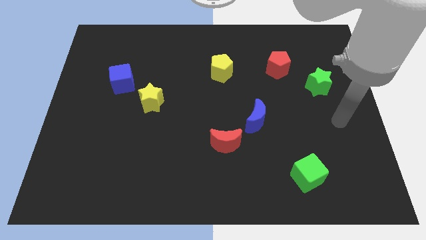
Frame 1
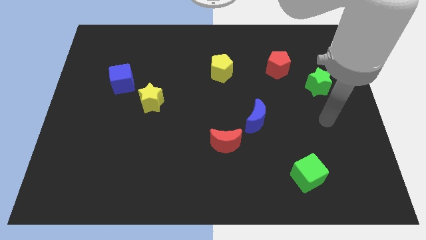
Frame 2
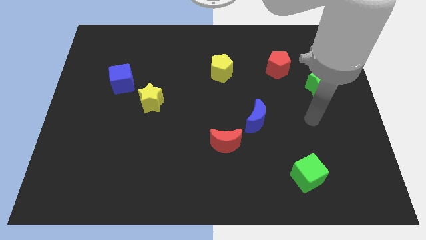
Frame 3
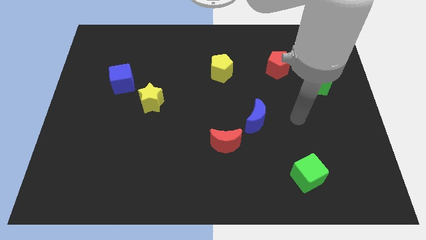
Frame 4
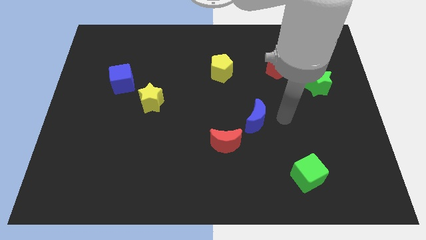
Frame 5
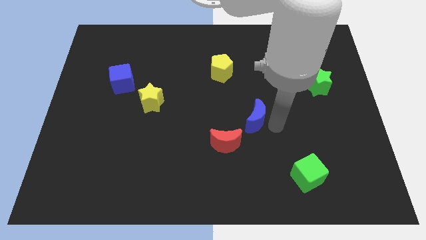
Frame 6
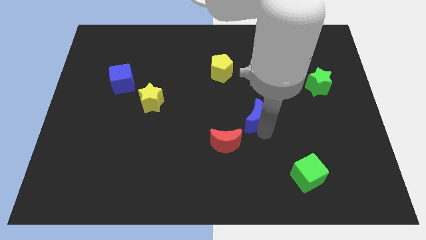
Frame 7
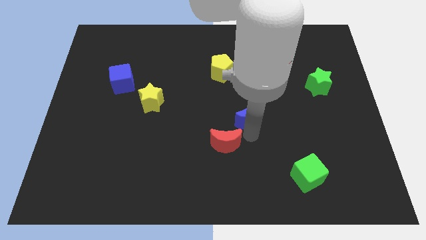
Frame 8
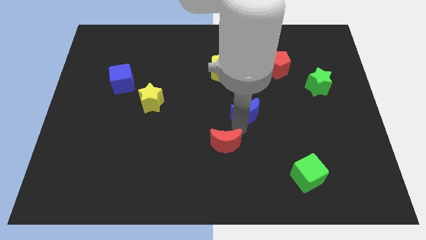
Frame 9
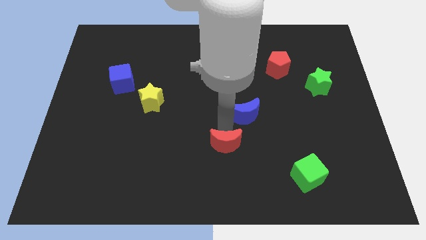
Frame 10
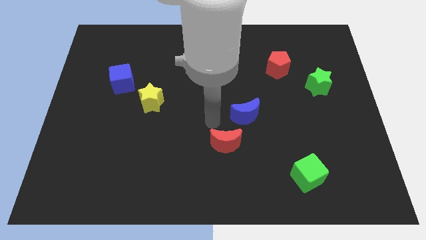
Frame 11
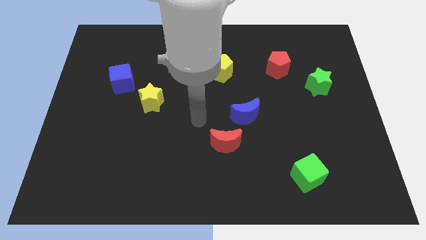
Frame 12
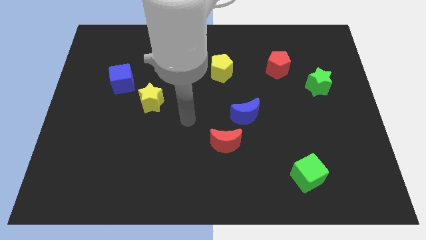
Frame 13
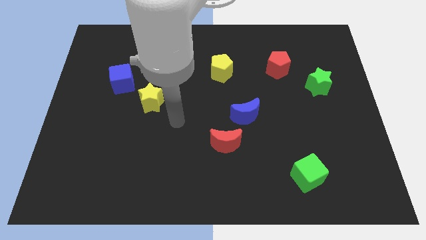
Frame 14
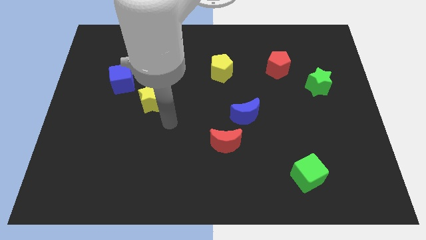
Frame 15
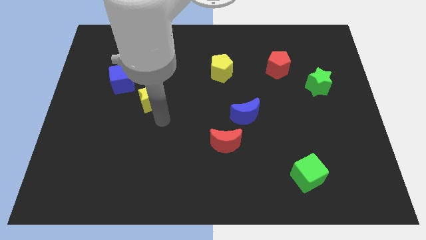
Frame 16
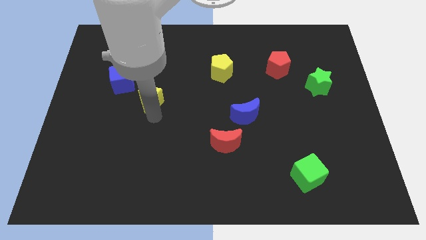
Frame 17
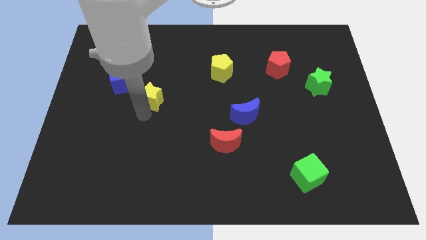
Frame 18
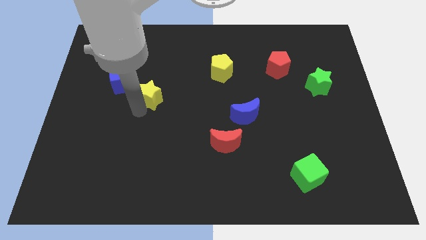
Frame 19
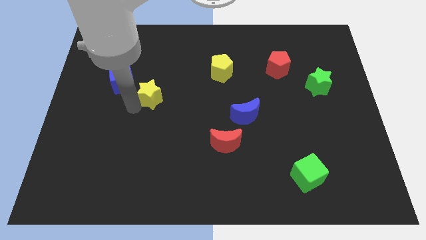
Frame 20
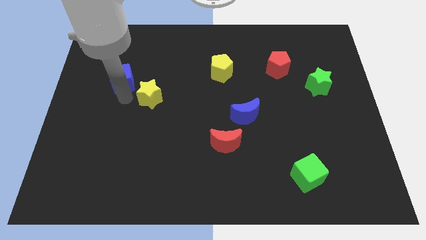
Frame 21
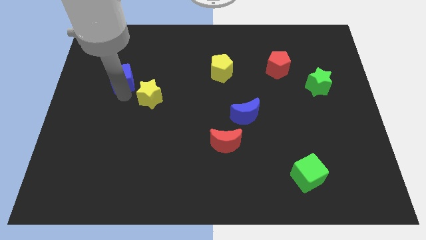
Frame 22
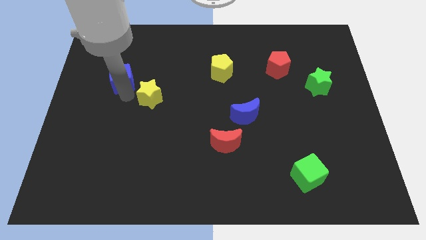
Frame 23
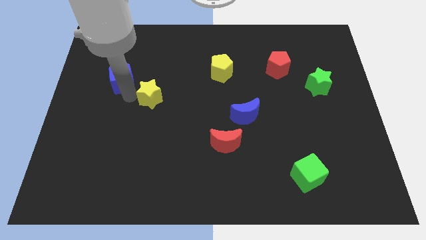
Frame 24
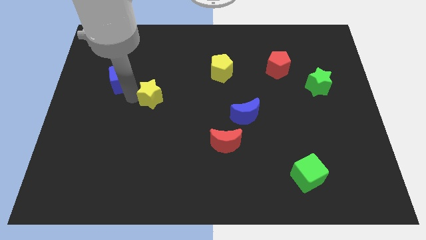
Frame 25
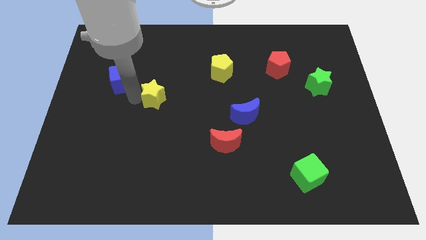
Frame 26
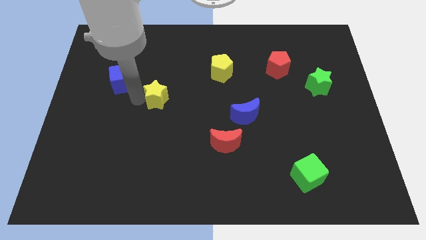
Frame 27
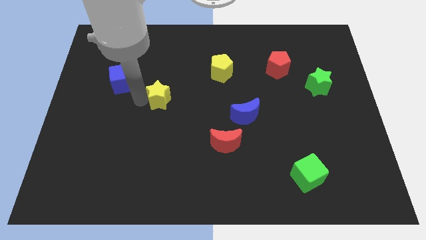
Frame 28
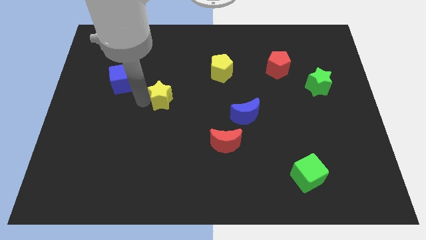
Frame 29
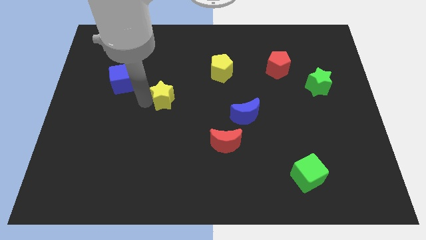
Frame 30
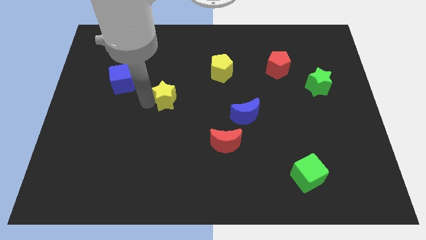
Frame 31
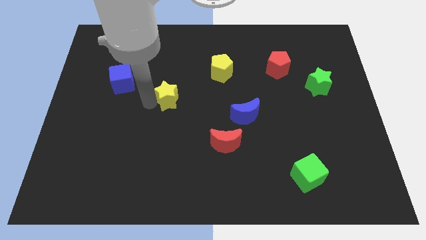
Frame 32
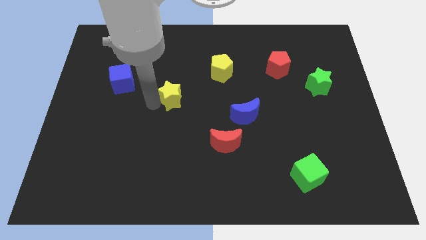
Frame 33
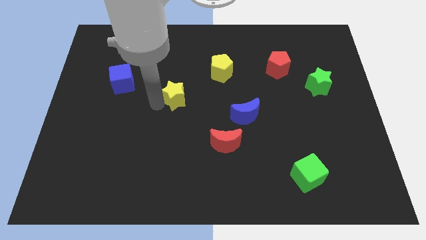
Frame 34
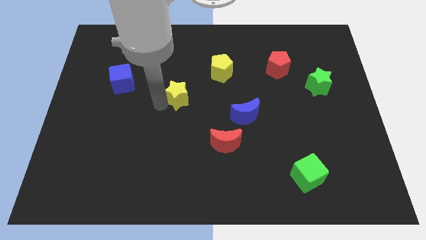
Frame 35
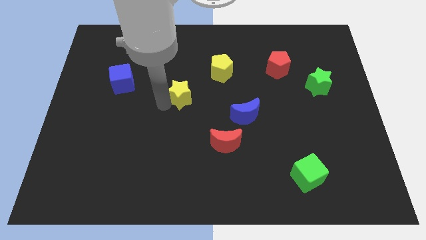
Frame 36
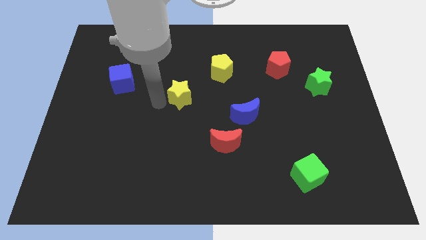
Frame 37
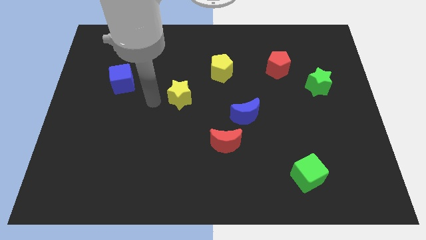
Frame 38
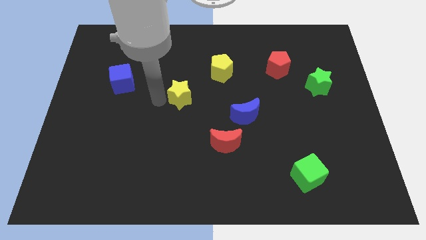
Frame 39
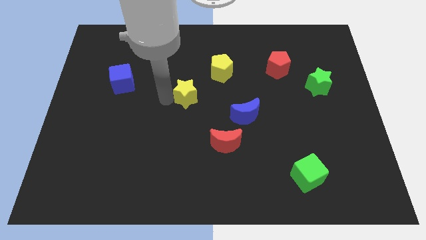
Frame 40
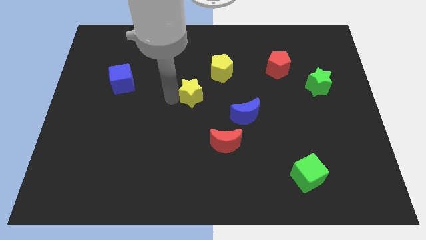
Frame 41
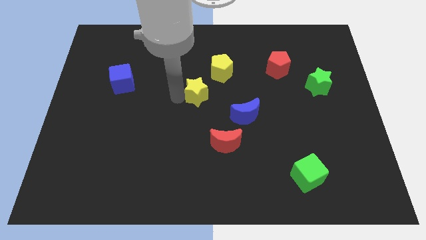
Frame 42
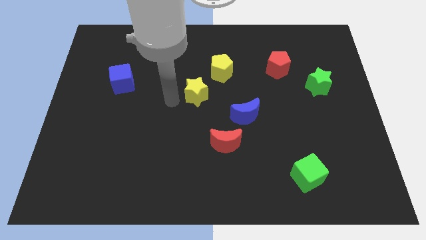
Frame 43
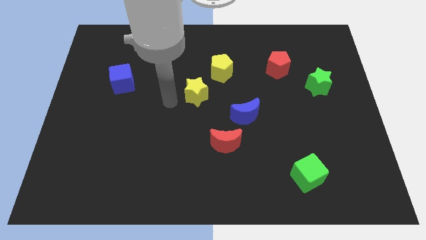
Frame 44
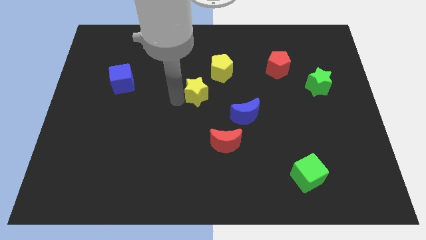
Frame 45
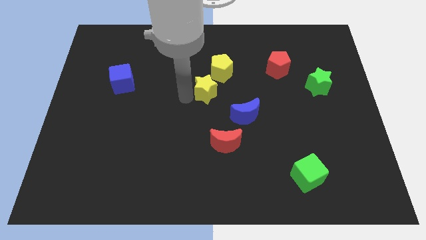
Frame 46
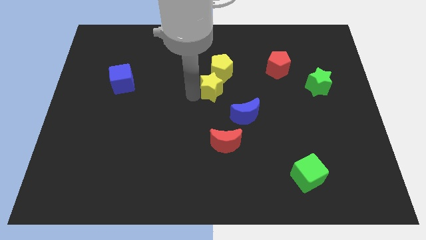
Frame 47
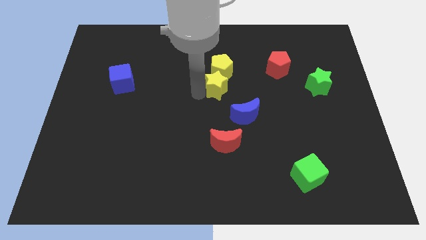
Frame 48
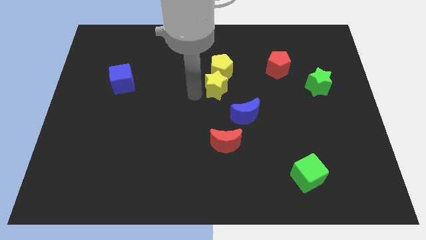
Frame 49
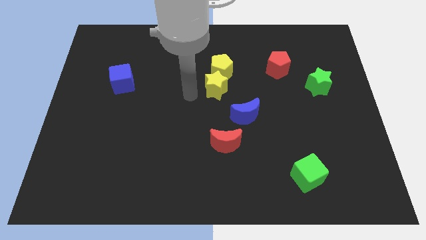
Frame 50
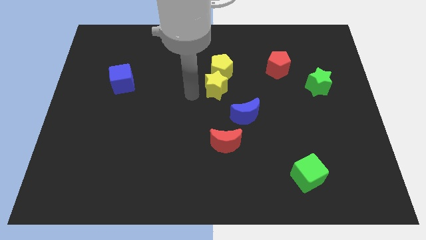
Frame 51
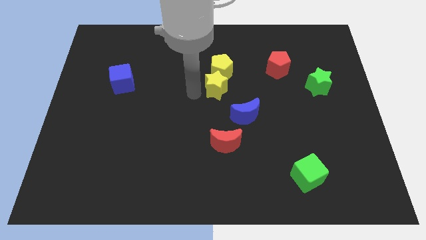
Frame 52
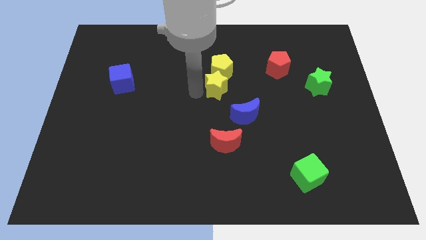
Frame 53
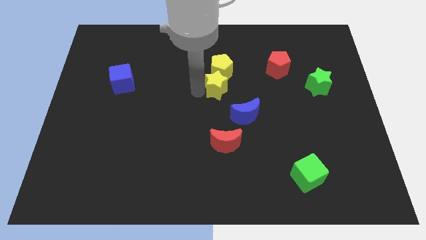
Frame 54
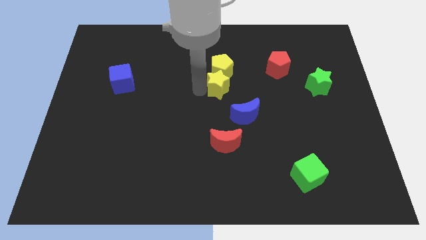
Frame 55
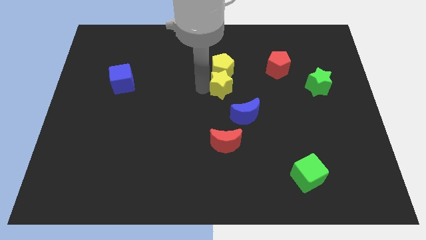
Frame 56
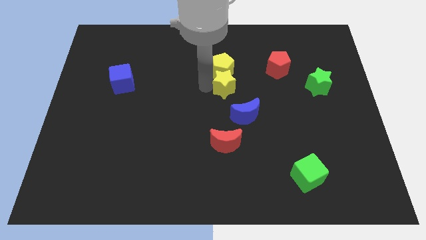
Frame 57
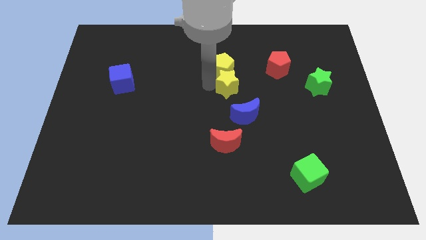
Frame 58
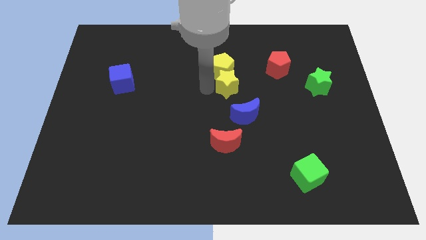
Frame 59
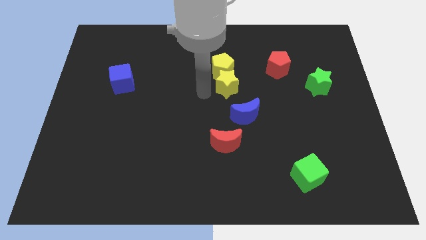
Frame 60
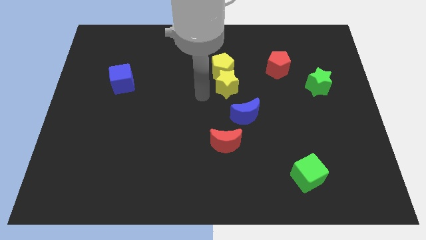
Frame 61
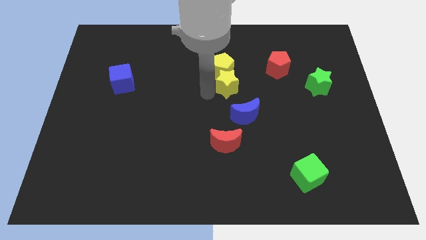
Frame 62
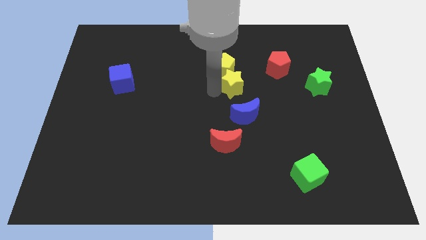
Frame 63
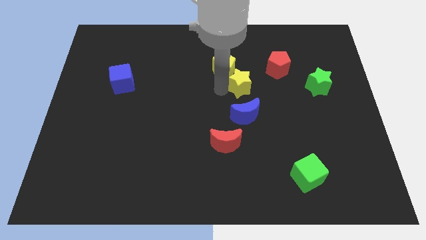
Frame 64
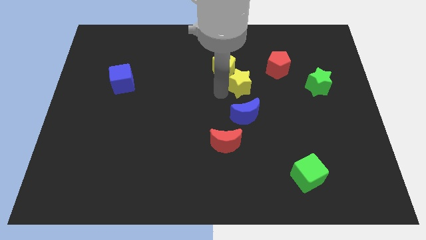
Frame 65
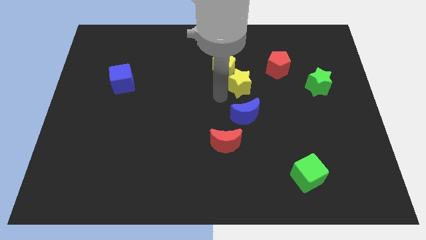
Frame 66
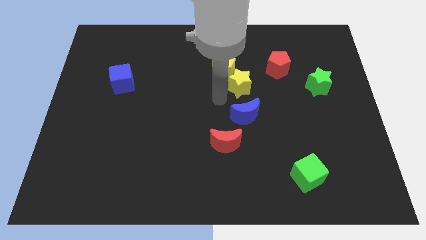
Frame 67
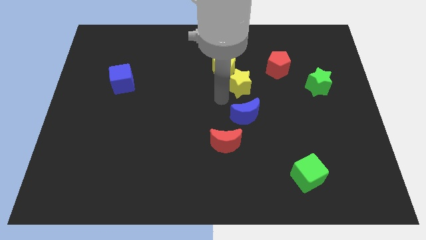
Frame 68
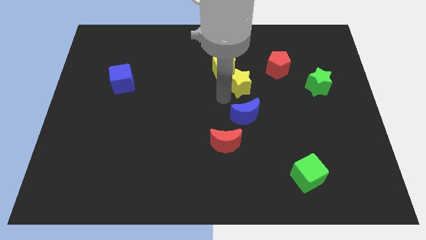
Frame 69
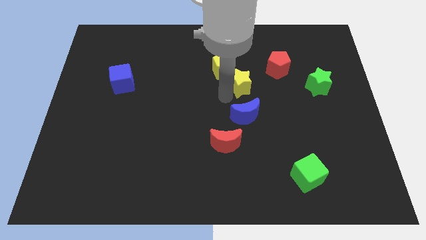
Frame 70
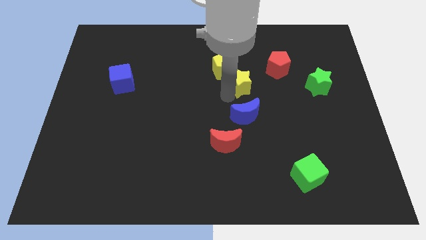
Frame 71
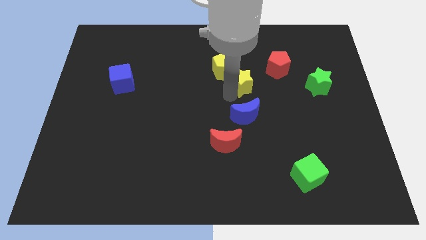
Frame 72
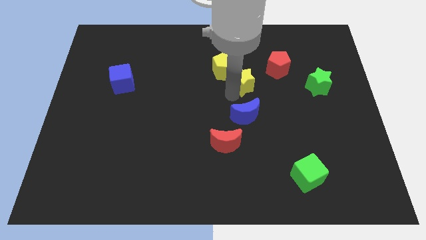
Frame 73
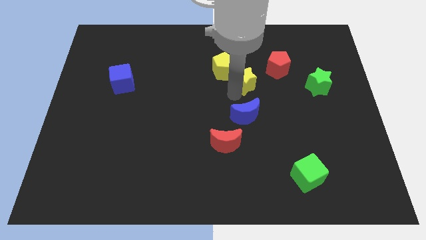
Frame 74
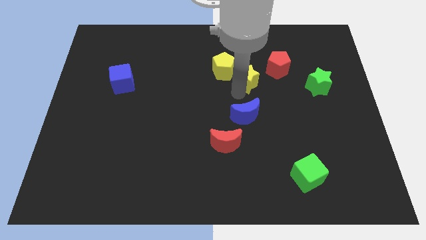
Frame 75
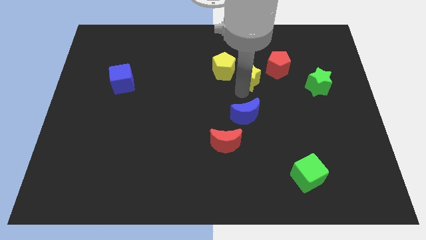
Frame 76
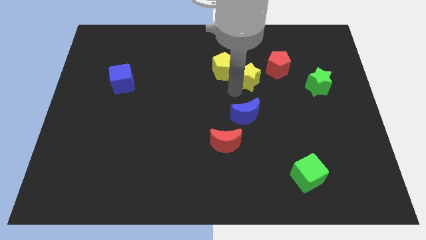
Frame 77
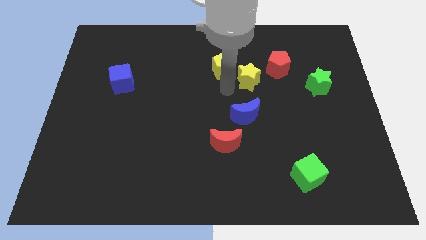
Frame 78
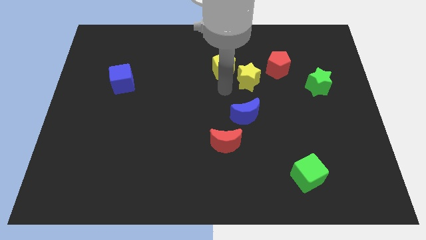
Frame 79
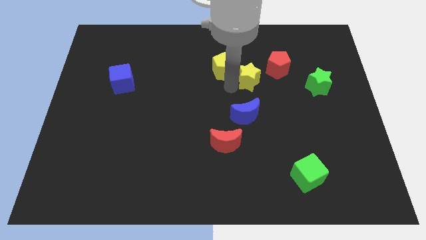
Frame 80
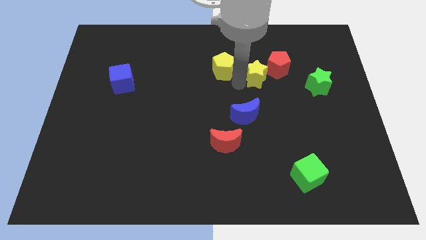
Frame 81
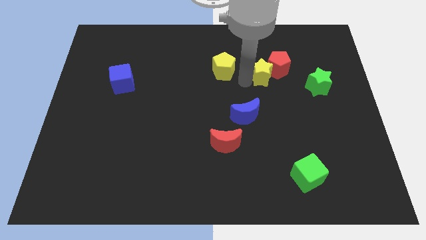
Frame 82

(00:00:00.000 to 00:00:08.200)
put the yellow star to the red pentagon
